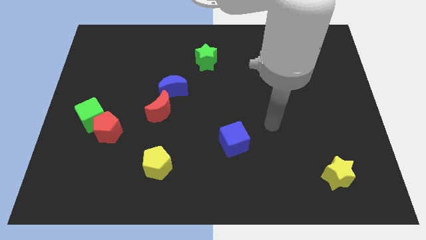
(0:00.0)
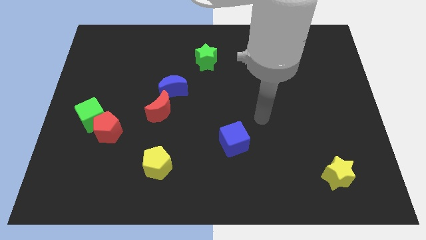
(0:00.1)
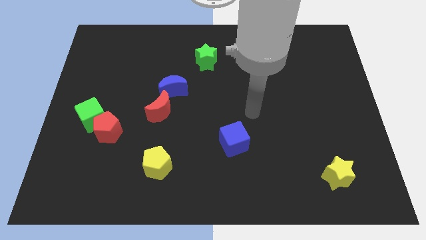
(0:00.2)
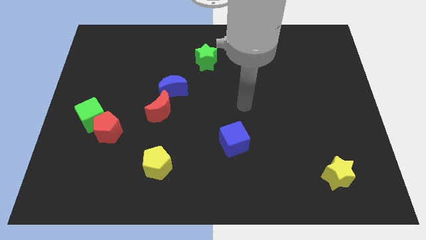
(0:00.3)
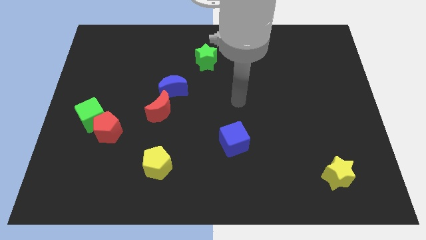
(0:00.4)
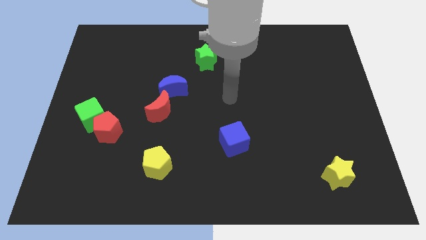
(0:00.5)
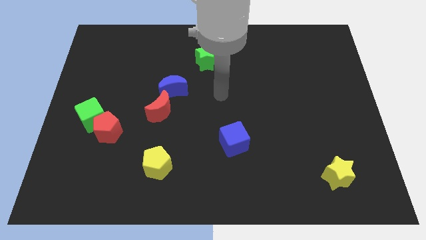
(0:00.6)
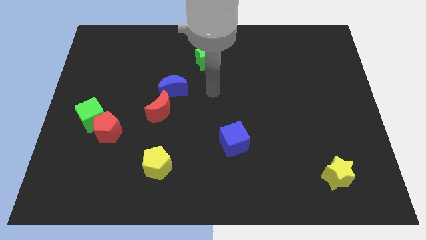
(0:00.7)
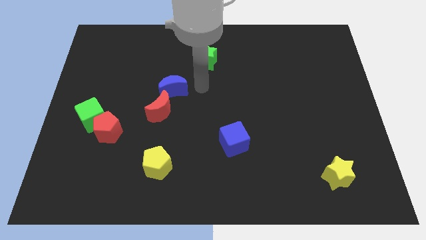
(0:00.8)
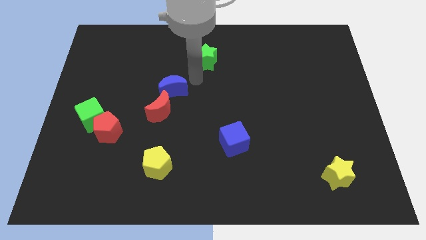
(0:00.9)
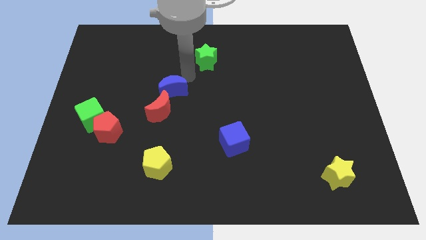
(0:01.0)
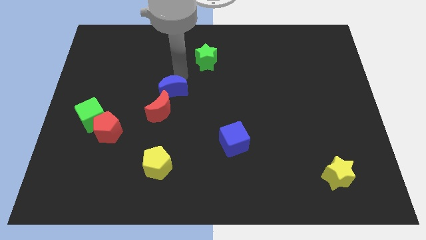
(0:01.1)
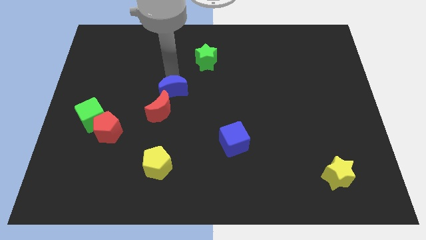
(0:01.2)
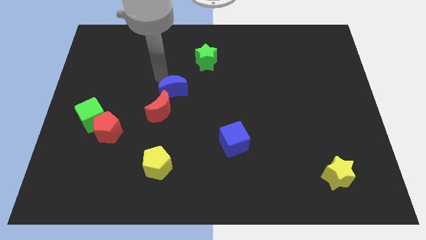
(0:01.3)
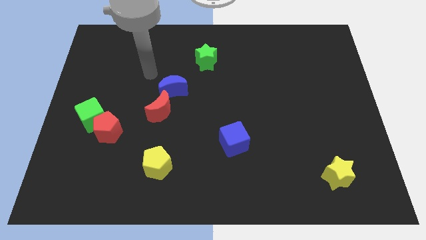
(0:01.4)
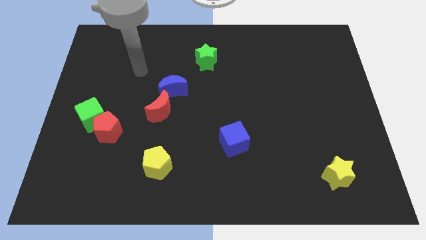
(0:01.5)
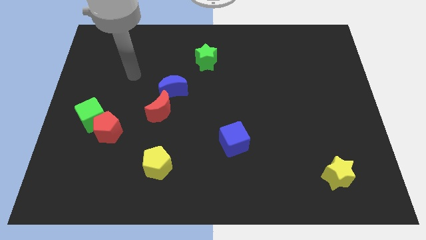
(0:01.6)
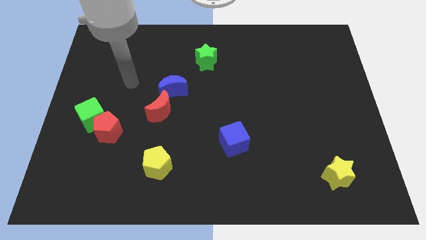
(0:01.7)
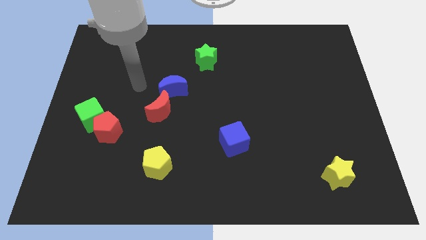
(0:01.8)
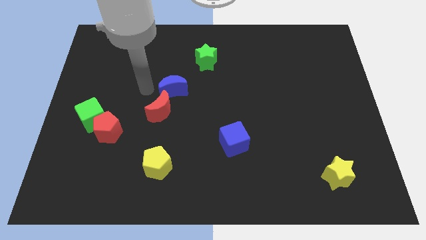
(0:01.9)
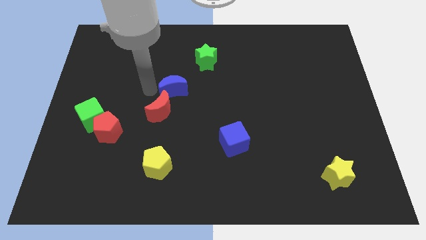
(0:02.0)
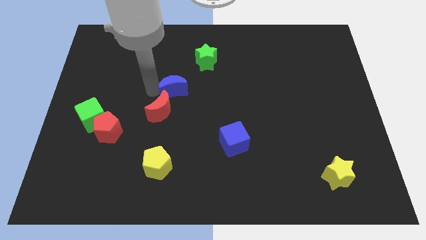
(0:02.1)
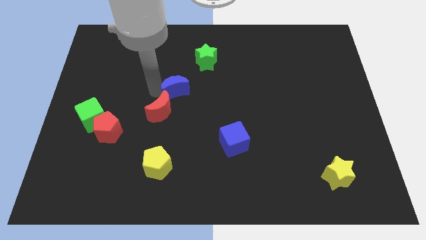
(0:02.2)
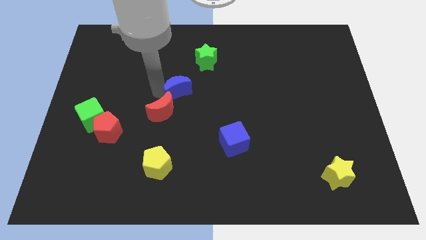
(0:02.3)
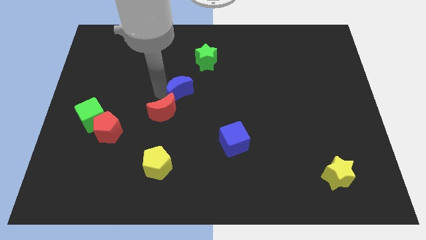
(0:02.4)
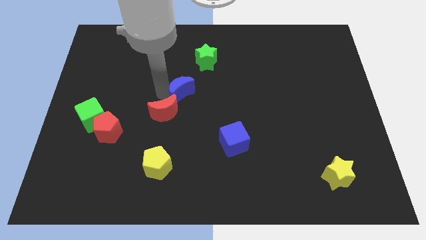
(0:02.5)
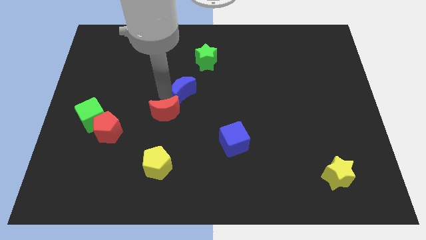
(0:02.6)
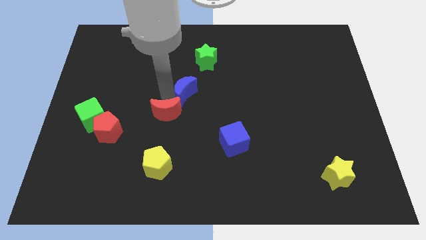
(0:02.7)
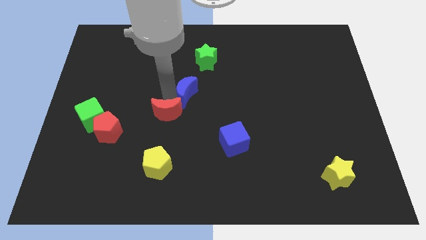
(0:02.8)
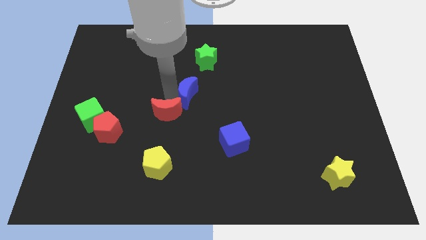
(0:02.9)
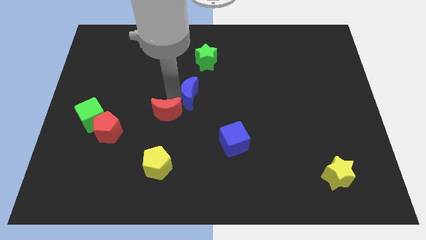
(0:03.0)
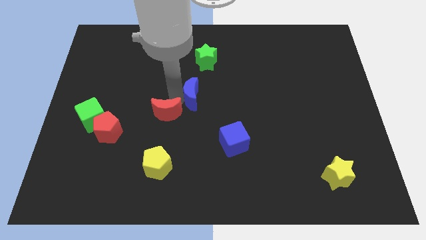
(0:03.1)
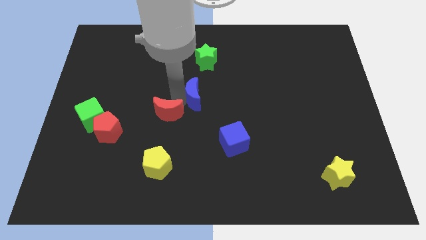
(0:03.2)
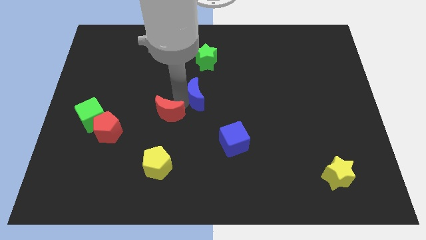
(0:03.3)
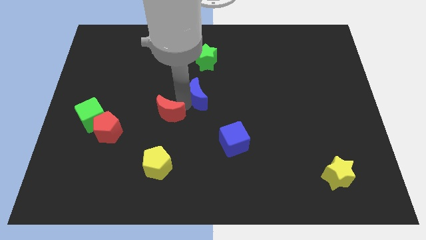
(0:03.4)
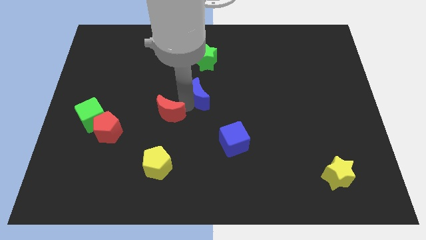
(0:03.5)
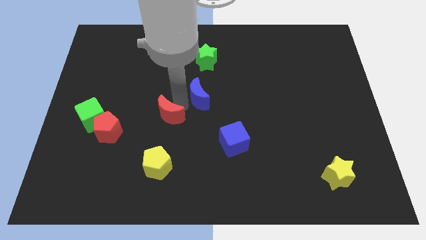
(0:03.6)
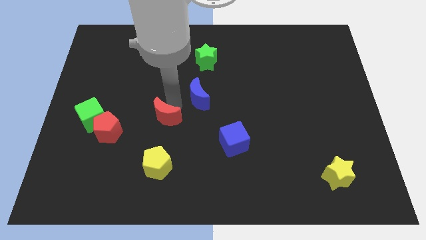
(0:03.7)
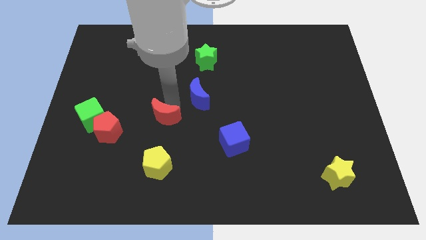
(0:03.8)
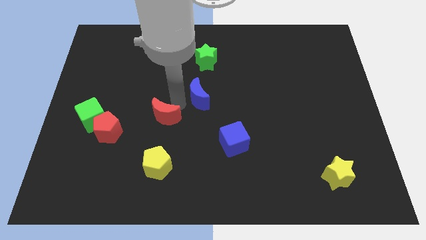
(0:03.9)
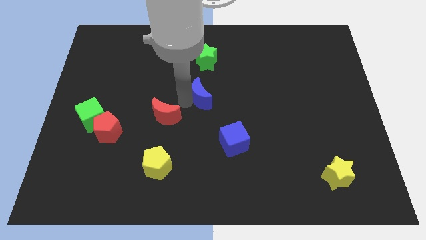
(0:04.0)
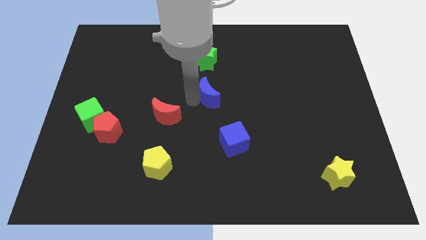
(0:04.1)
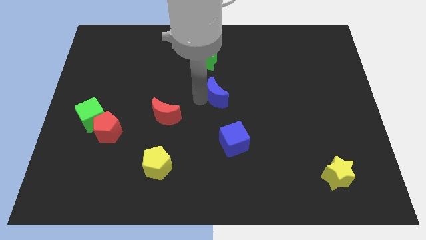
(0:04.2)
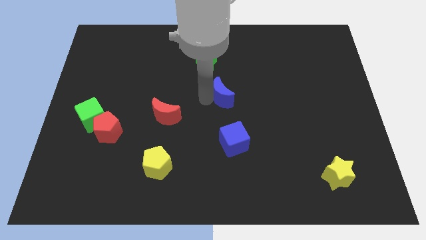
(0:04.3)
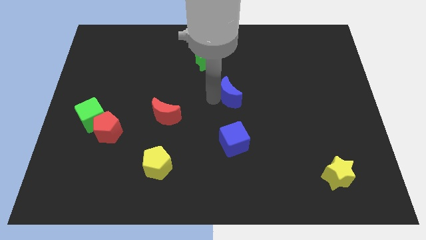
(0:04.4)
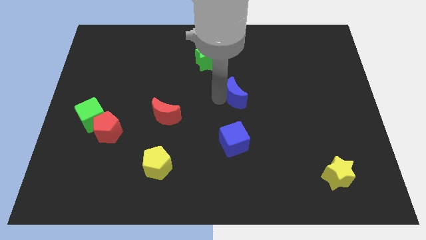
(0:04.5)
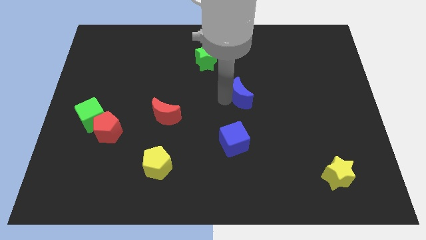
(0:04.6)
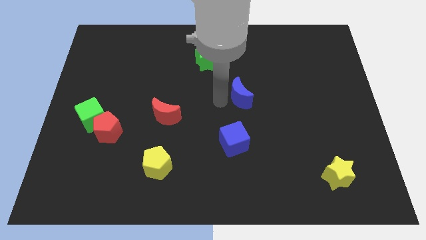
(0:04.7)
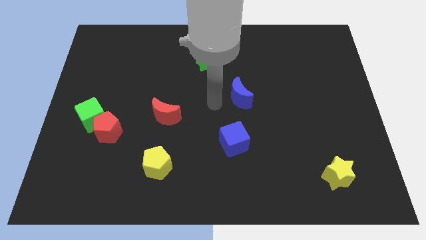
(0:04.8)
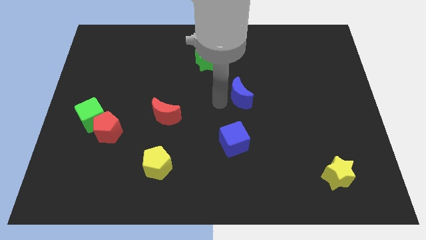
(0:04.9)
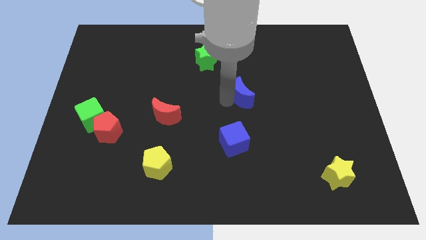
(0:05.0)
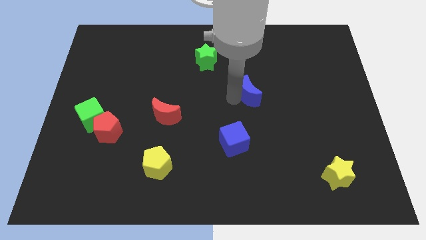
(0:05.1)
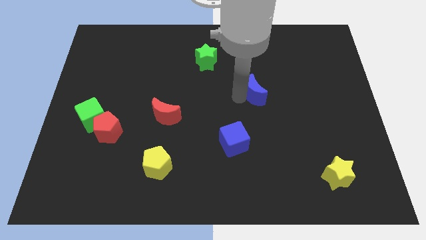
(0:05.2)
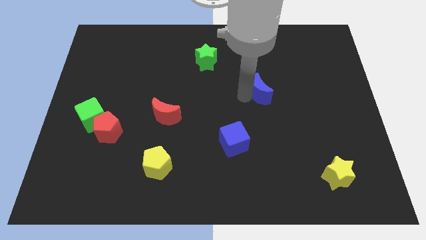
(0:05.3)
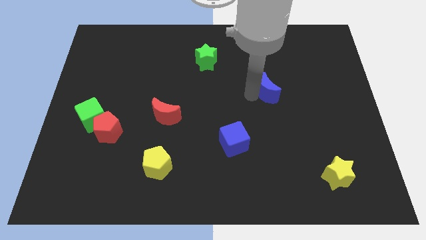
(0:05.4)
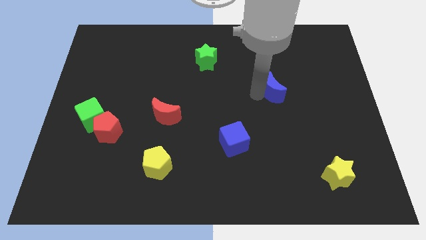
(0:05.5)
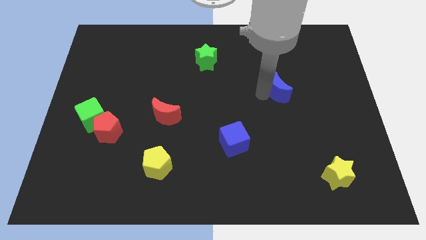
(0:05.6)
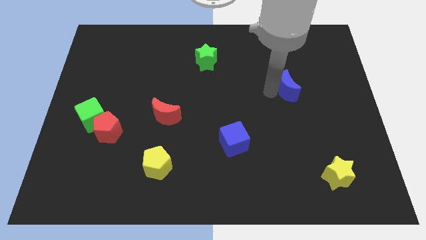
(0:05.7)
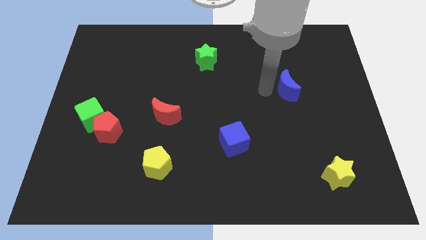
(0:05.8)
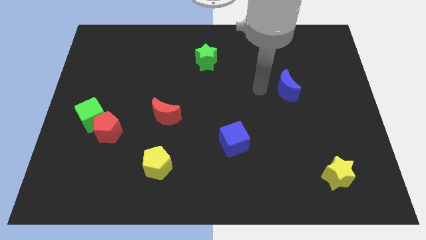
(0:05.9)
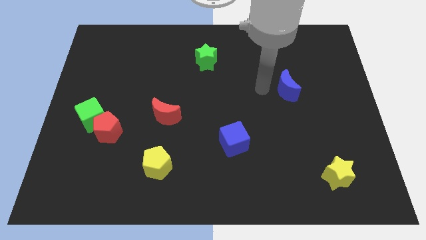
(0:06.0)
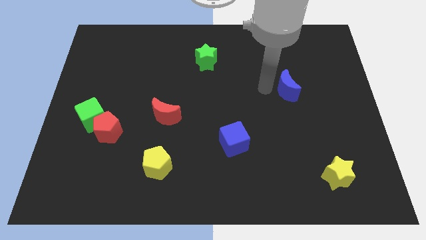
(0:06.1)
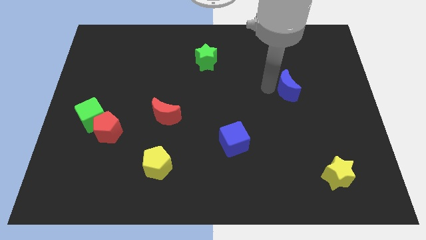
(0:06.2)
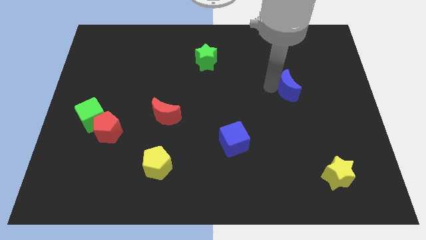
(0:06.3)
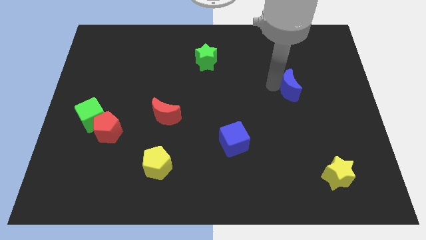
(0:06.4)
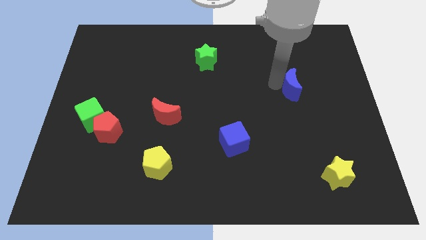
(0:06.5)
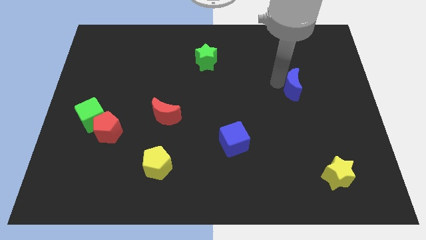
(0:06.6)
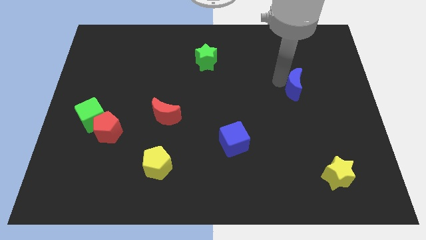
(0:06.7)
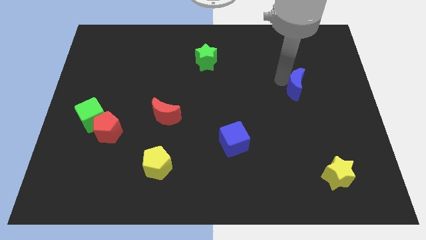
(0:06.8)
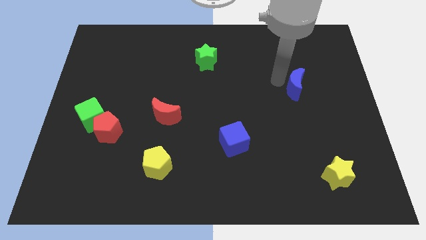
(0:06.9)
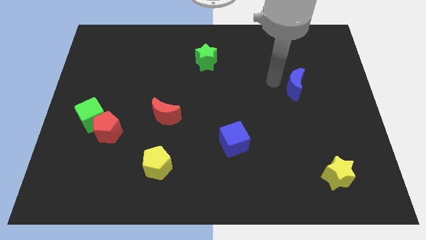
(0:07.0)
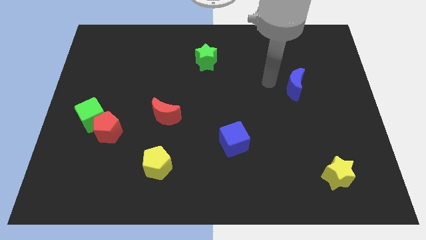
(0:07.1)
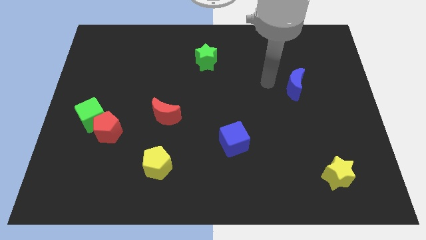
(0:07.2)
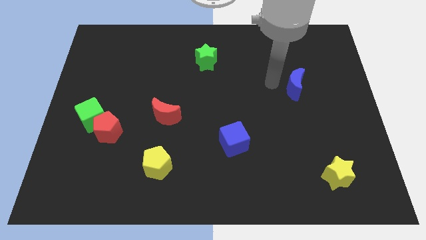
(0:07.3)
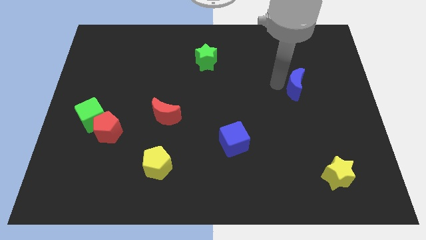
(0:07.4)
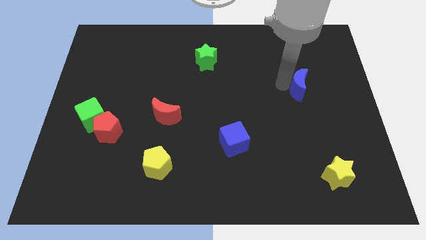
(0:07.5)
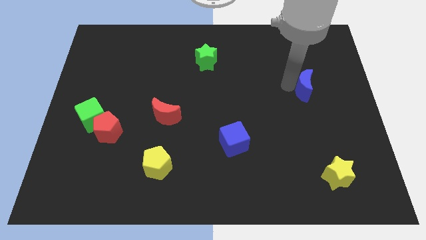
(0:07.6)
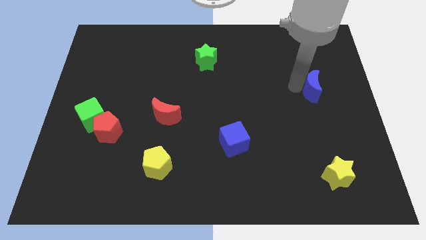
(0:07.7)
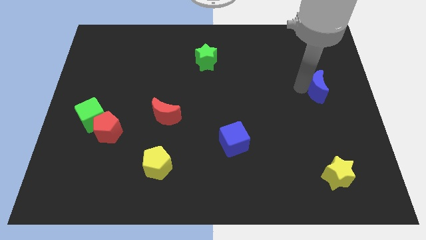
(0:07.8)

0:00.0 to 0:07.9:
slide the blue moon to the right side
